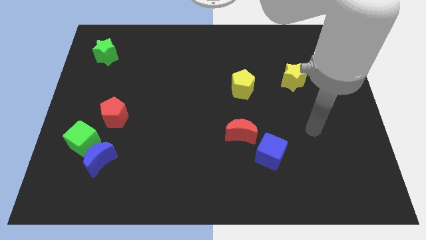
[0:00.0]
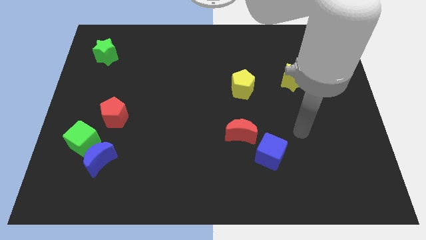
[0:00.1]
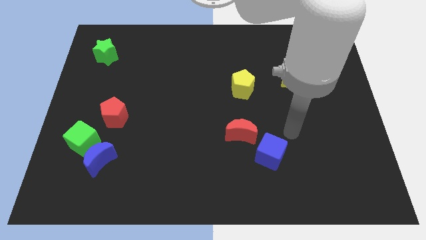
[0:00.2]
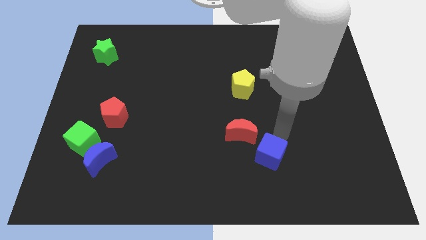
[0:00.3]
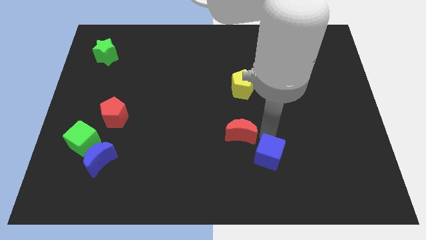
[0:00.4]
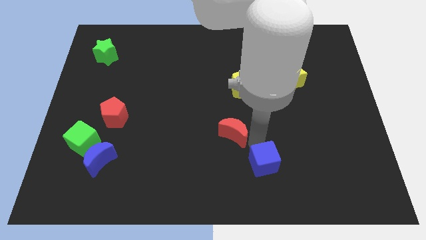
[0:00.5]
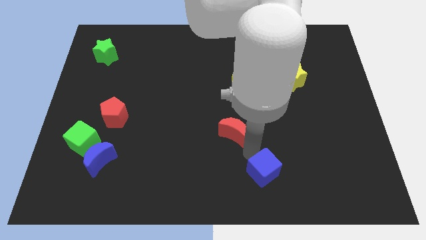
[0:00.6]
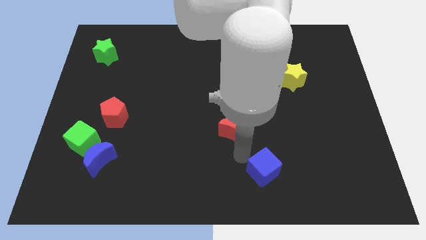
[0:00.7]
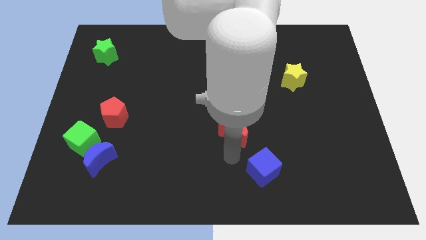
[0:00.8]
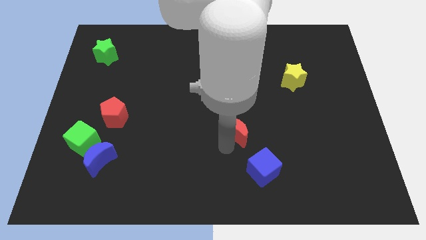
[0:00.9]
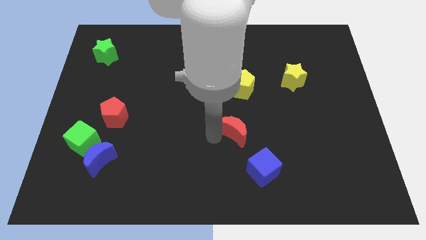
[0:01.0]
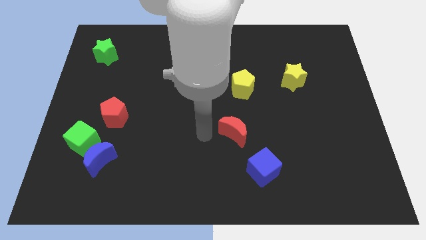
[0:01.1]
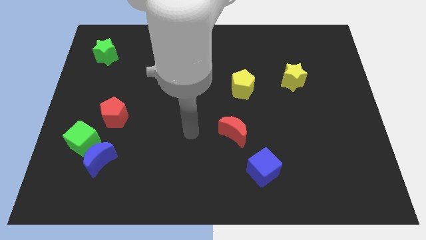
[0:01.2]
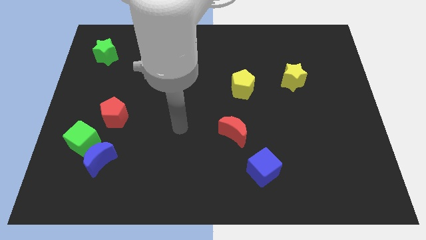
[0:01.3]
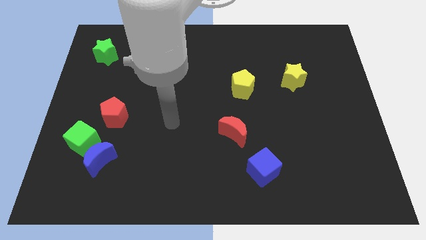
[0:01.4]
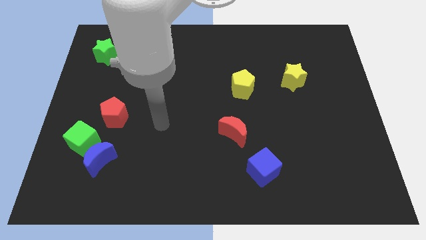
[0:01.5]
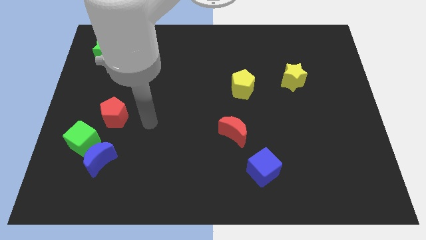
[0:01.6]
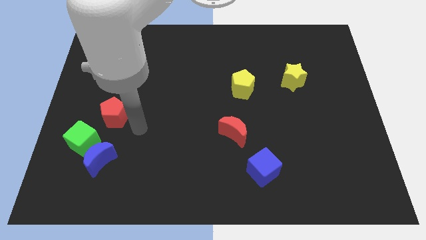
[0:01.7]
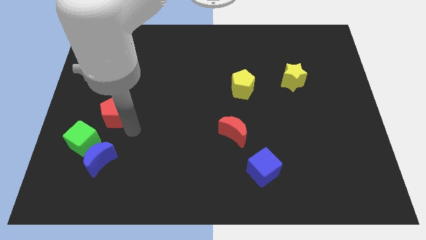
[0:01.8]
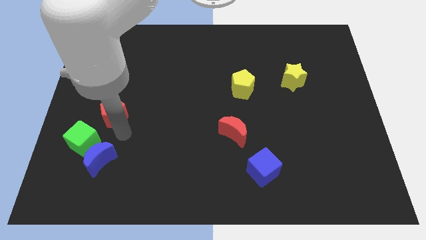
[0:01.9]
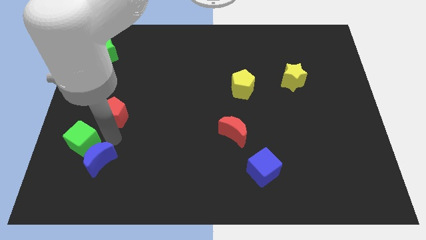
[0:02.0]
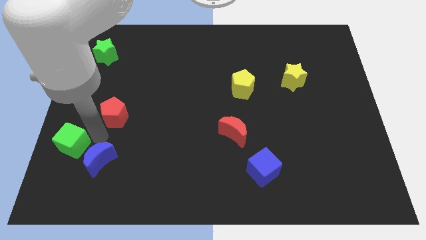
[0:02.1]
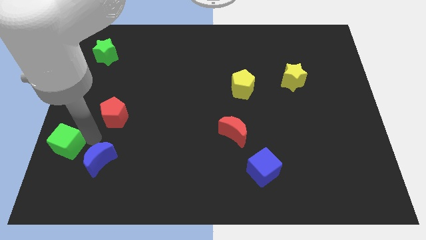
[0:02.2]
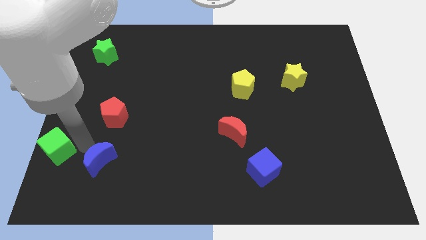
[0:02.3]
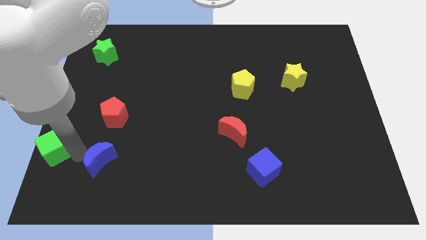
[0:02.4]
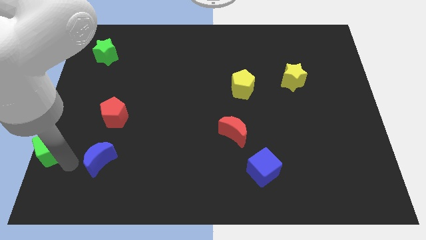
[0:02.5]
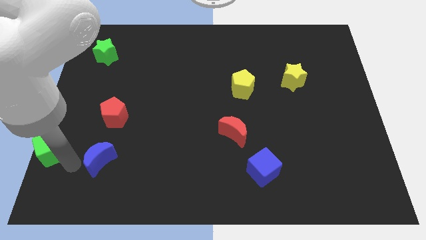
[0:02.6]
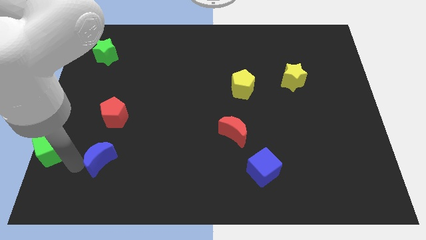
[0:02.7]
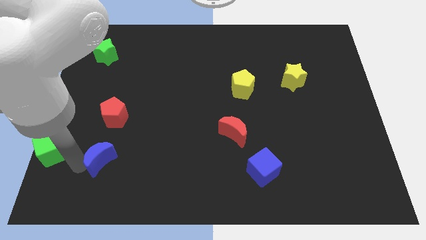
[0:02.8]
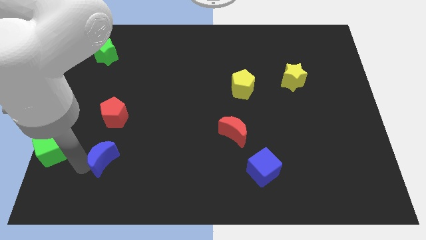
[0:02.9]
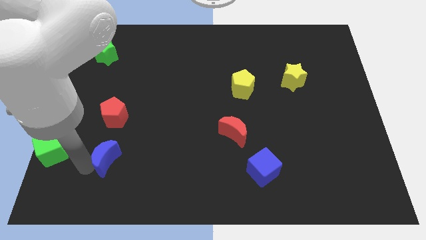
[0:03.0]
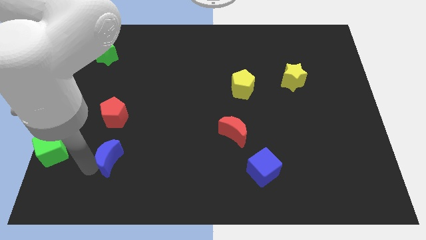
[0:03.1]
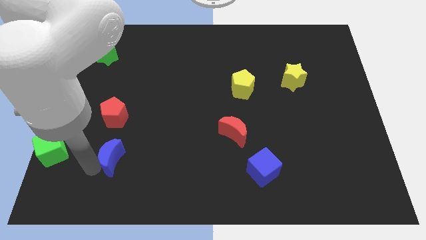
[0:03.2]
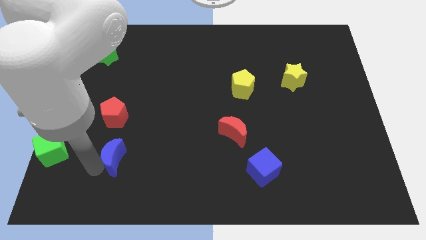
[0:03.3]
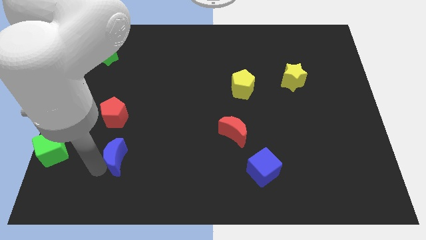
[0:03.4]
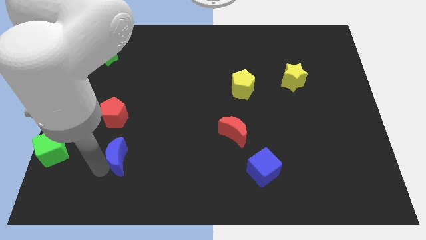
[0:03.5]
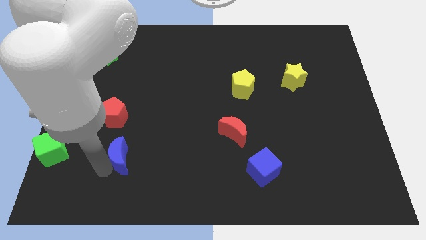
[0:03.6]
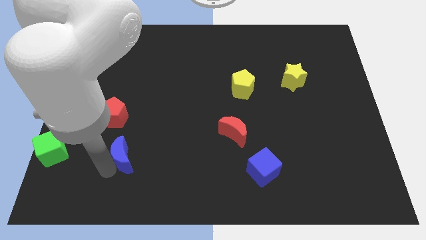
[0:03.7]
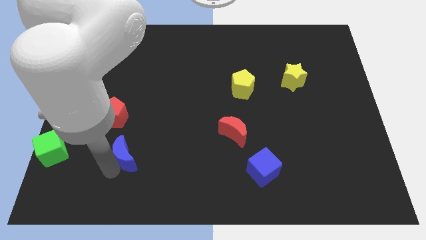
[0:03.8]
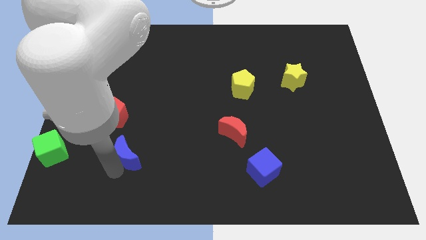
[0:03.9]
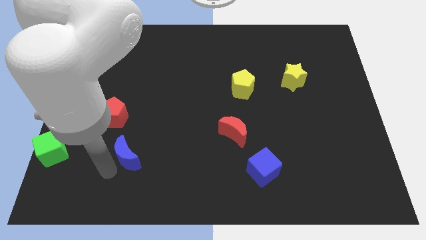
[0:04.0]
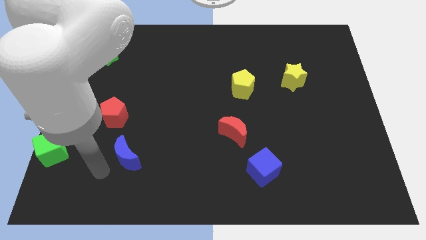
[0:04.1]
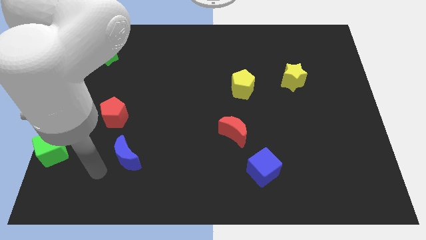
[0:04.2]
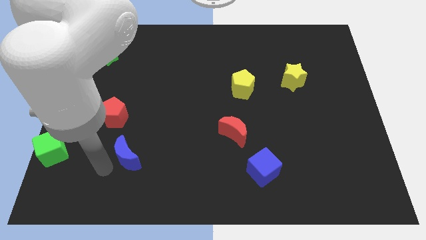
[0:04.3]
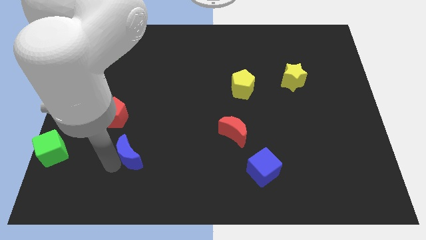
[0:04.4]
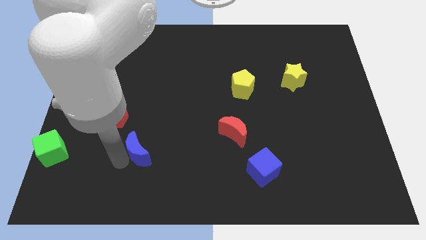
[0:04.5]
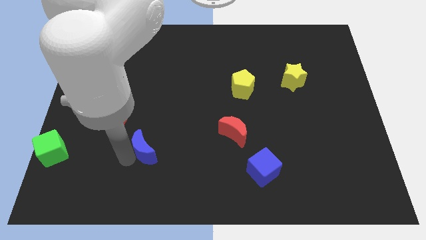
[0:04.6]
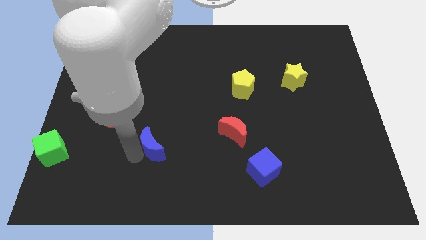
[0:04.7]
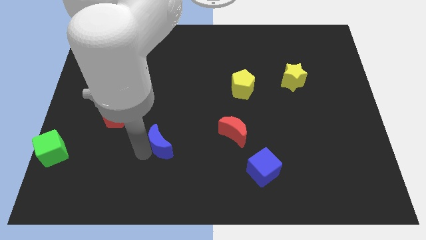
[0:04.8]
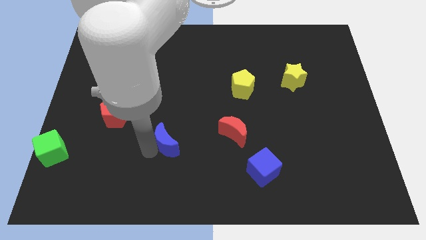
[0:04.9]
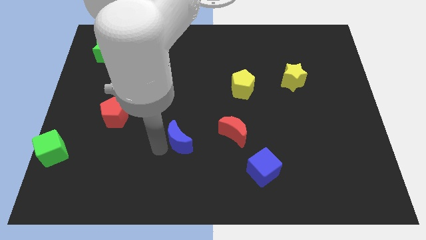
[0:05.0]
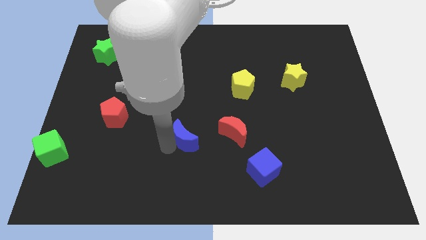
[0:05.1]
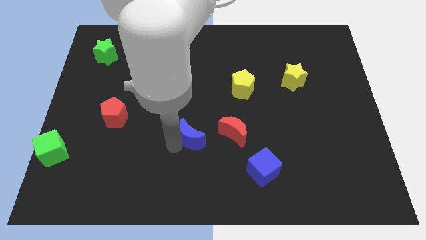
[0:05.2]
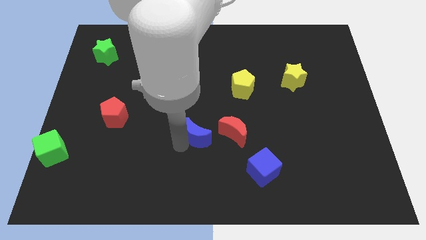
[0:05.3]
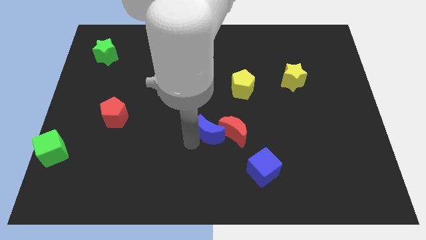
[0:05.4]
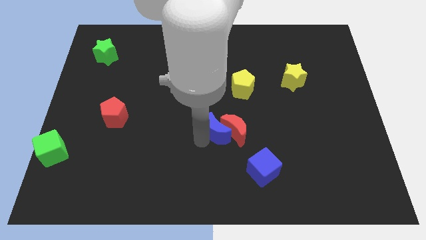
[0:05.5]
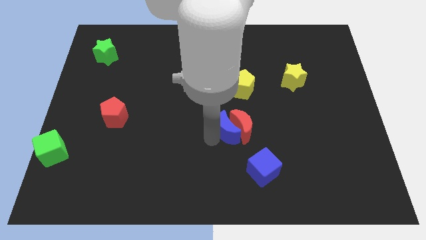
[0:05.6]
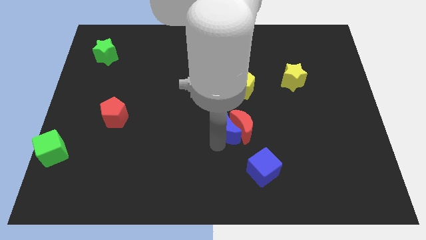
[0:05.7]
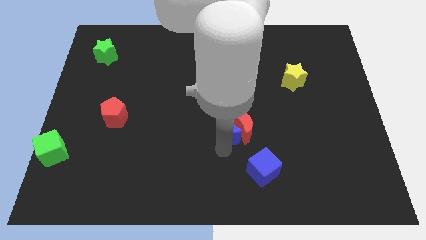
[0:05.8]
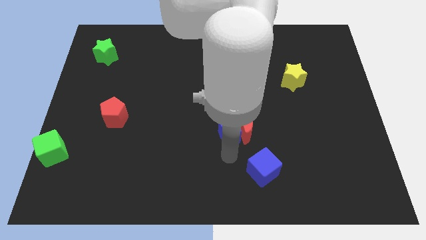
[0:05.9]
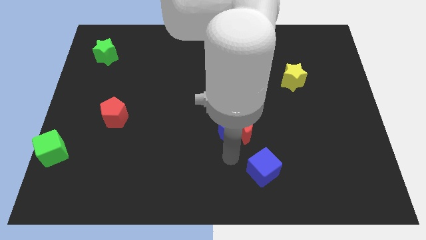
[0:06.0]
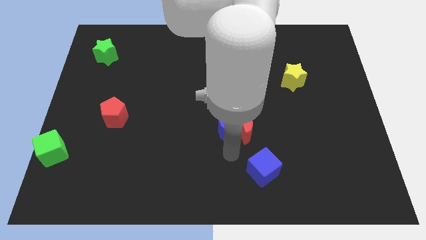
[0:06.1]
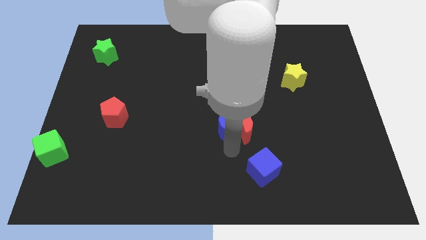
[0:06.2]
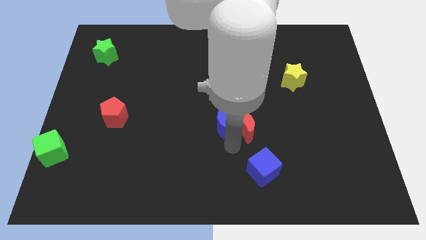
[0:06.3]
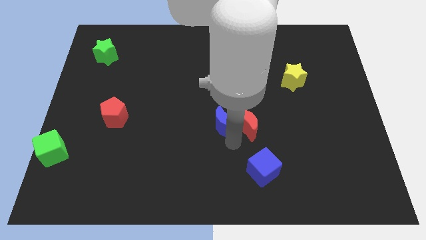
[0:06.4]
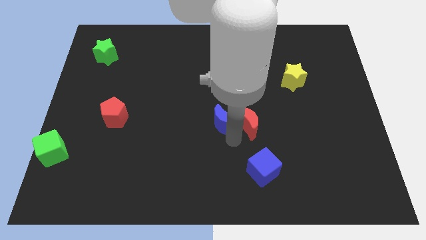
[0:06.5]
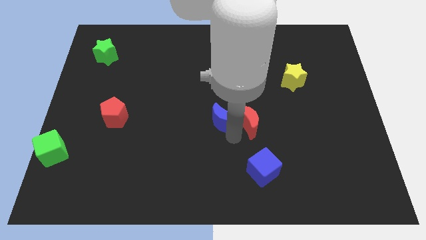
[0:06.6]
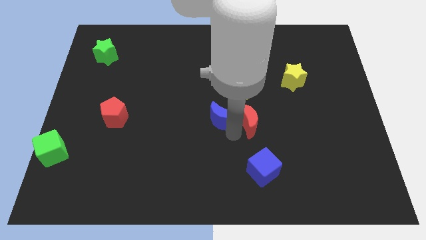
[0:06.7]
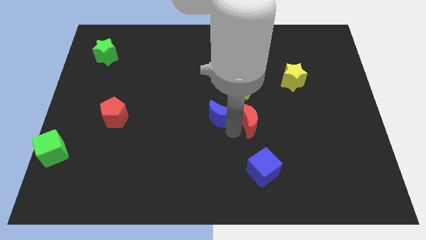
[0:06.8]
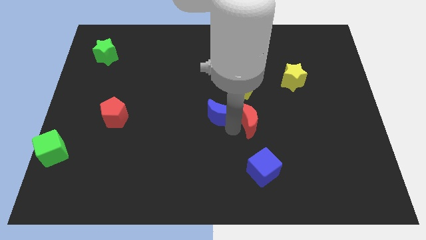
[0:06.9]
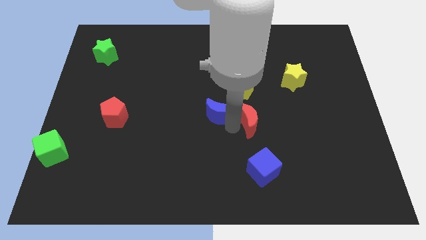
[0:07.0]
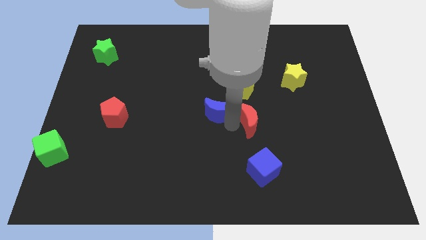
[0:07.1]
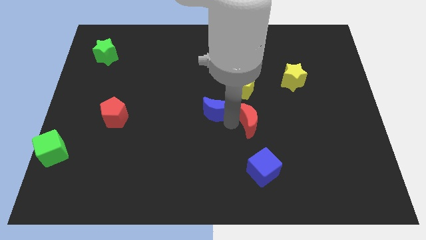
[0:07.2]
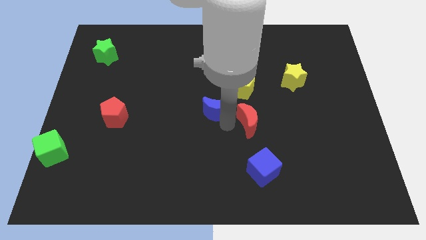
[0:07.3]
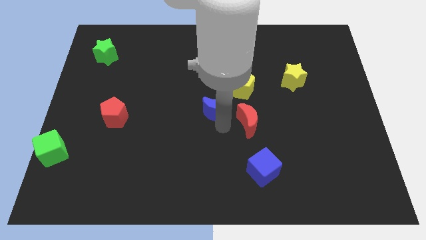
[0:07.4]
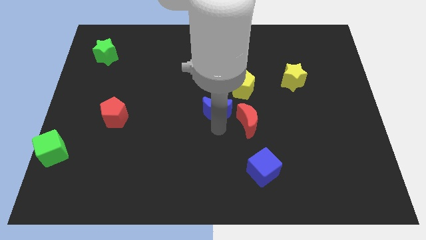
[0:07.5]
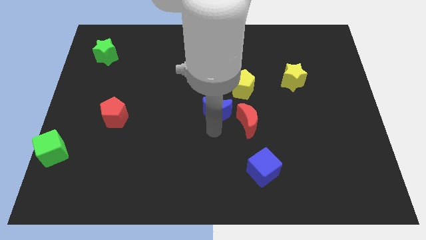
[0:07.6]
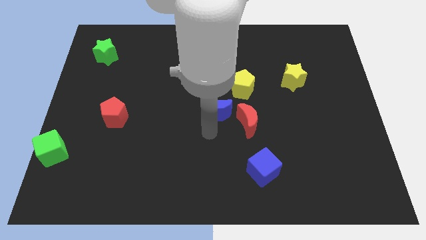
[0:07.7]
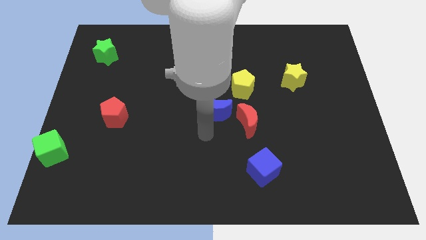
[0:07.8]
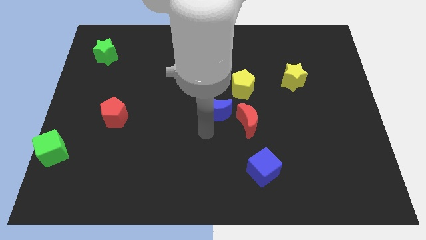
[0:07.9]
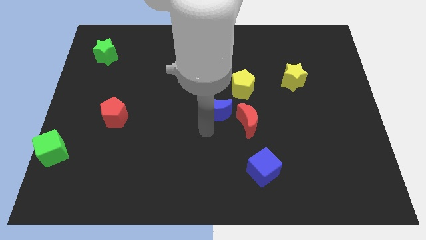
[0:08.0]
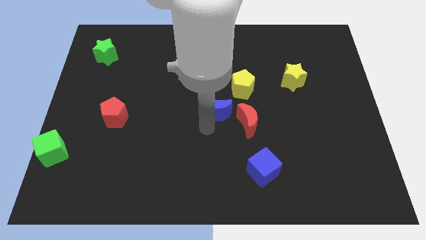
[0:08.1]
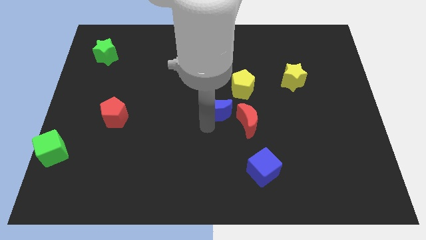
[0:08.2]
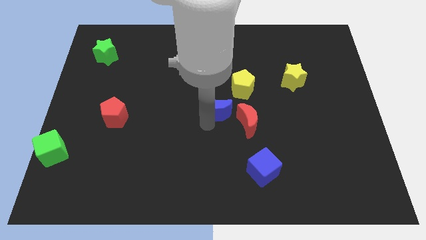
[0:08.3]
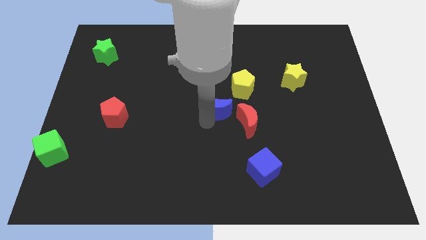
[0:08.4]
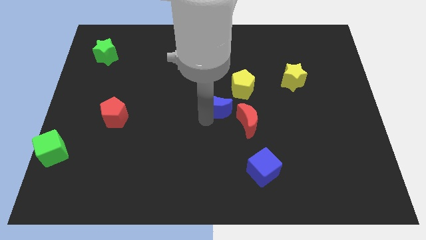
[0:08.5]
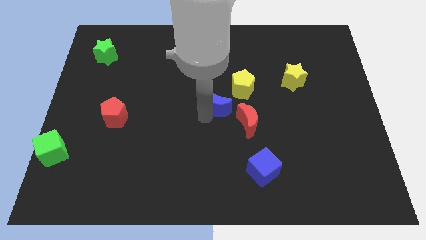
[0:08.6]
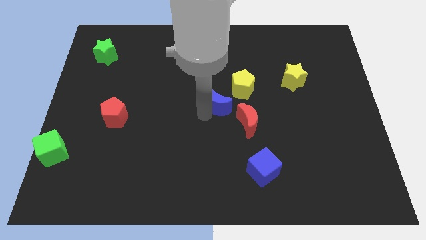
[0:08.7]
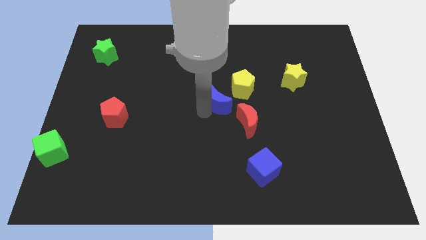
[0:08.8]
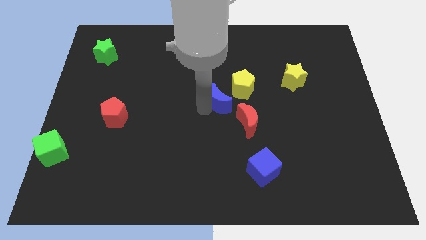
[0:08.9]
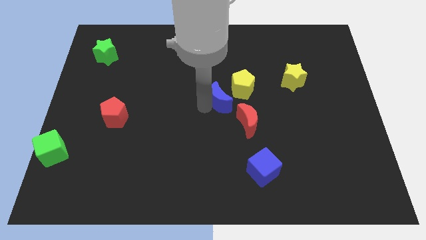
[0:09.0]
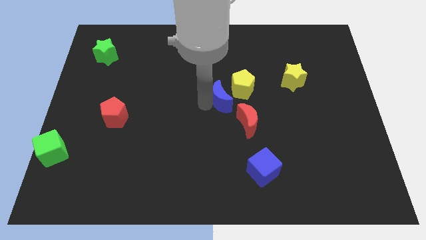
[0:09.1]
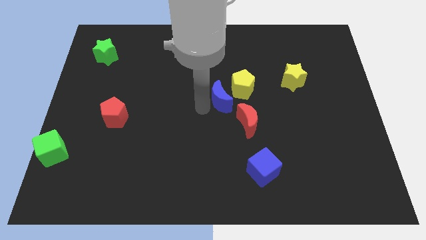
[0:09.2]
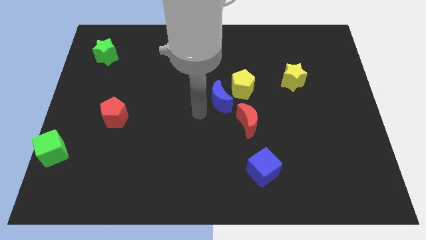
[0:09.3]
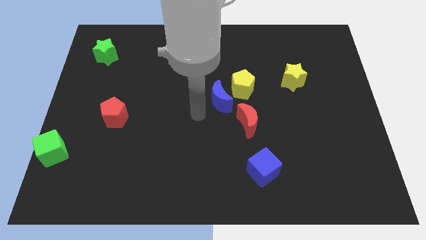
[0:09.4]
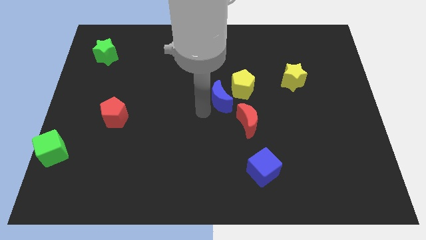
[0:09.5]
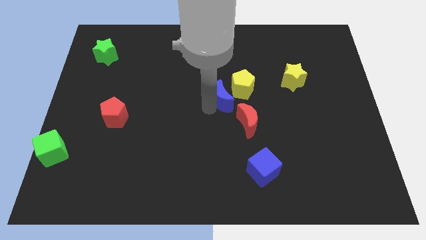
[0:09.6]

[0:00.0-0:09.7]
put the blue moon close to the yellow pentagon
